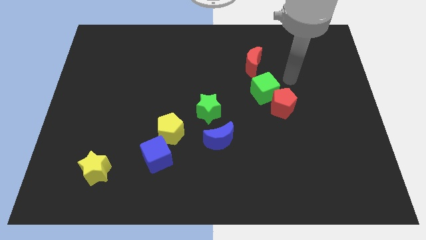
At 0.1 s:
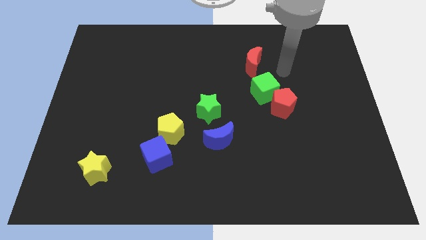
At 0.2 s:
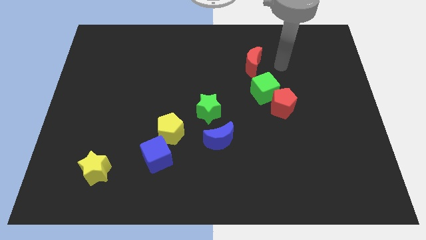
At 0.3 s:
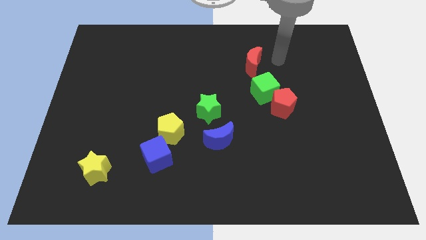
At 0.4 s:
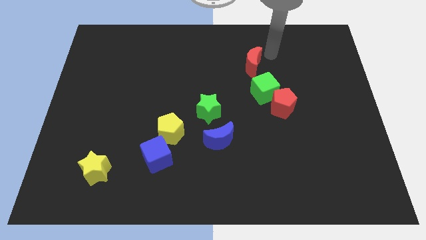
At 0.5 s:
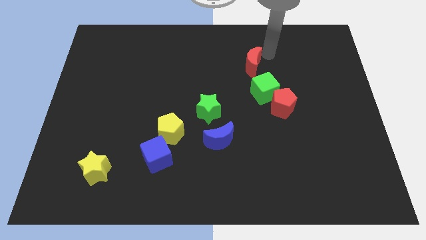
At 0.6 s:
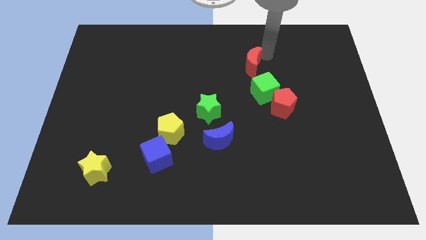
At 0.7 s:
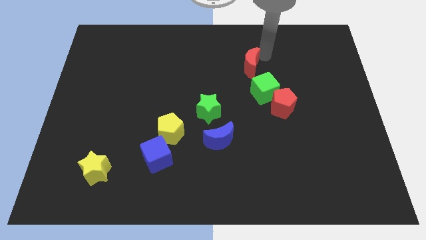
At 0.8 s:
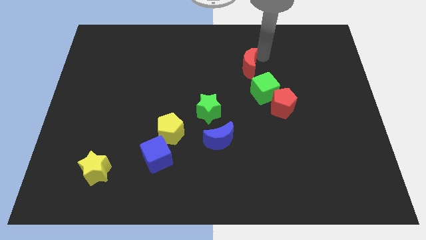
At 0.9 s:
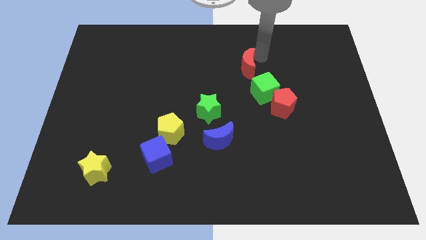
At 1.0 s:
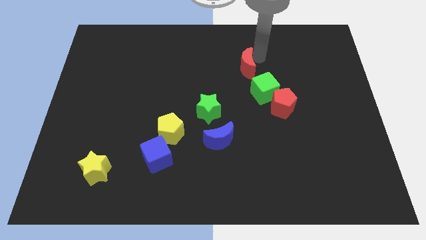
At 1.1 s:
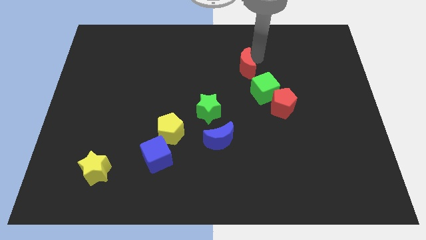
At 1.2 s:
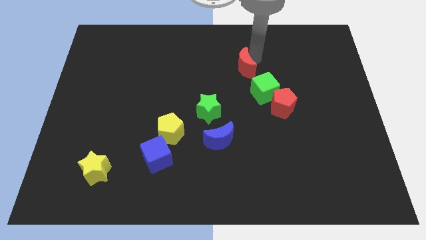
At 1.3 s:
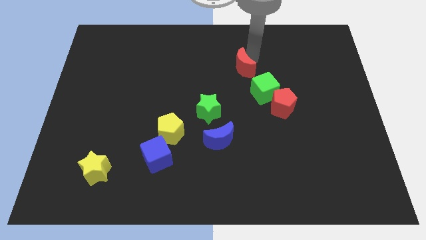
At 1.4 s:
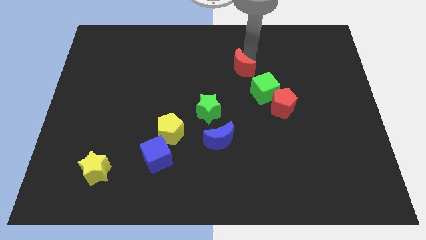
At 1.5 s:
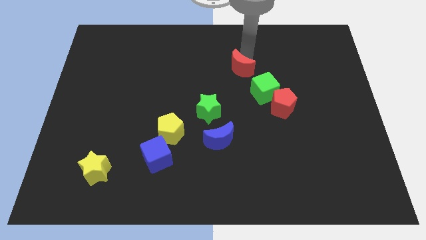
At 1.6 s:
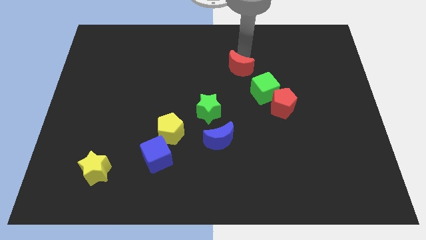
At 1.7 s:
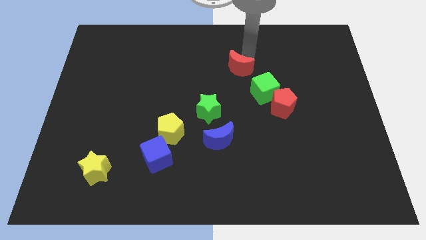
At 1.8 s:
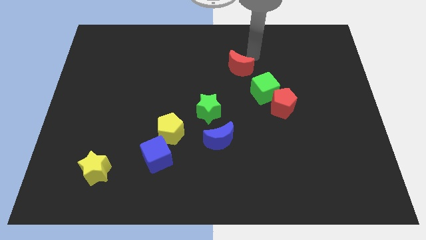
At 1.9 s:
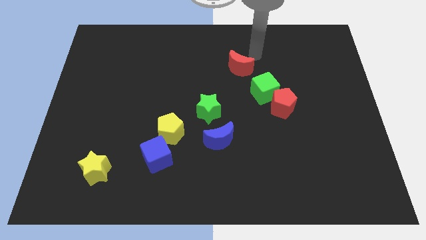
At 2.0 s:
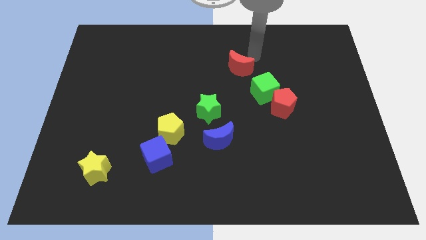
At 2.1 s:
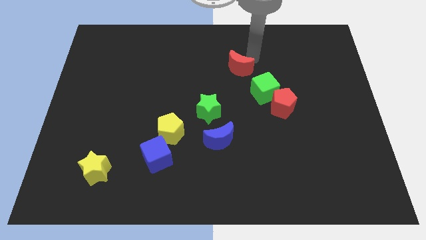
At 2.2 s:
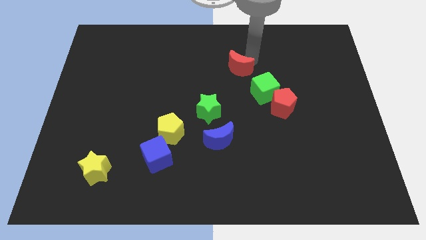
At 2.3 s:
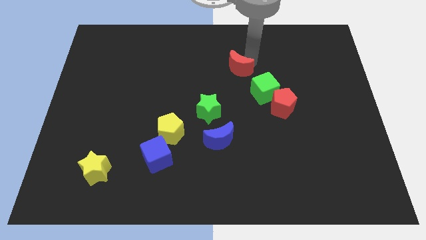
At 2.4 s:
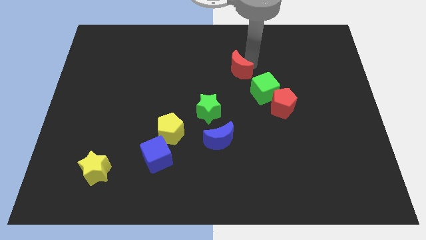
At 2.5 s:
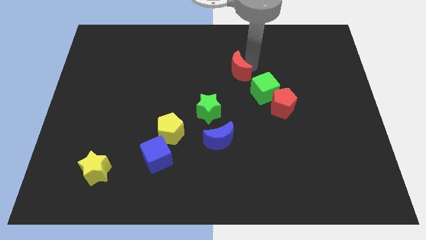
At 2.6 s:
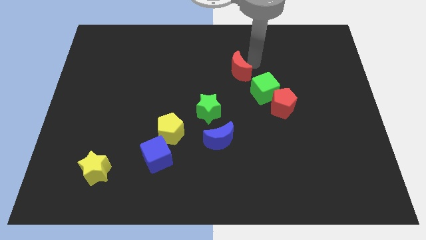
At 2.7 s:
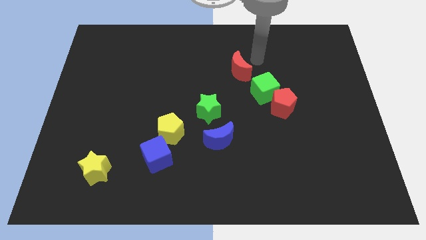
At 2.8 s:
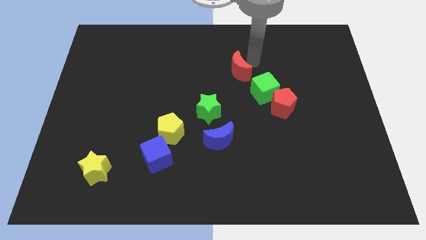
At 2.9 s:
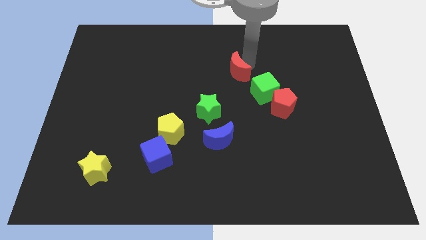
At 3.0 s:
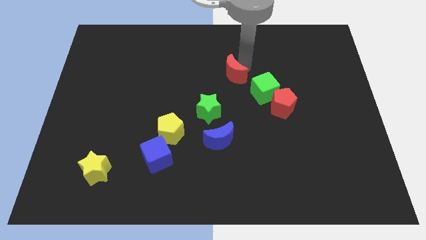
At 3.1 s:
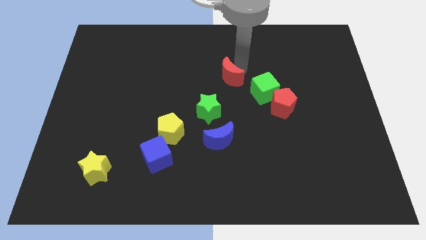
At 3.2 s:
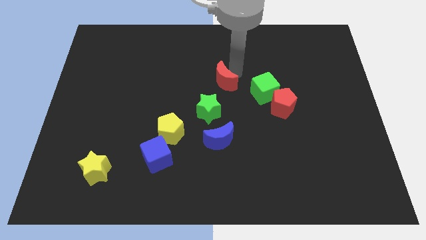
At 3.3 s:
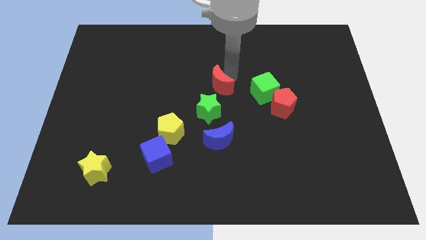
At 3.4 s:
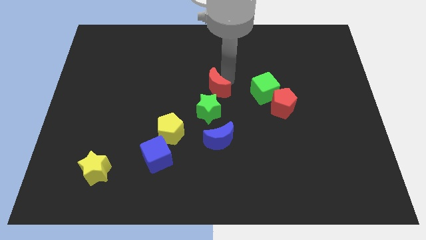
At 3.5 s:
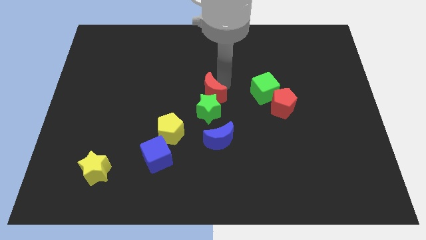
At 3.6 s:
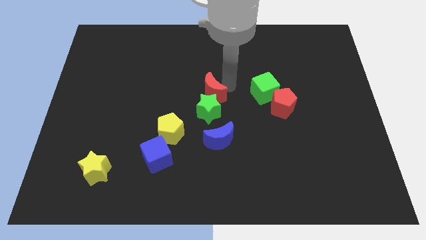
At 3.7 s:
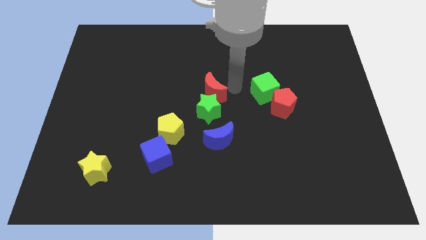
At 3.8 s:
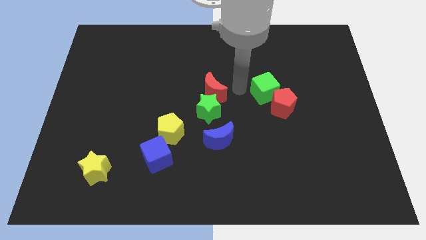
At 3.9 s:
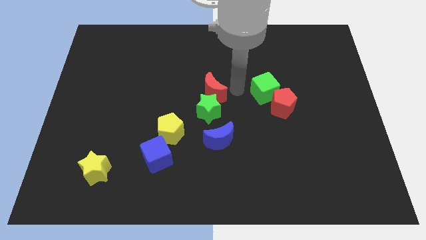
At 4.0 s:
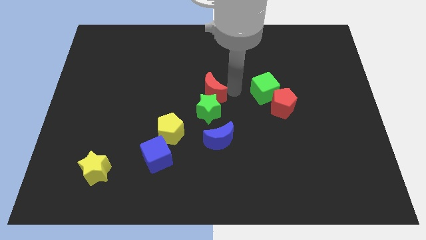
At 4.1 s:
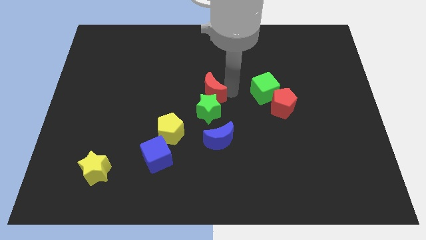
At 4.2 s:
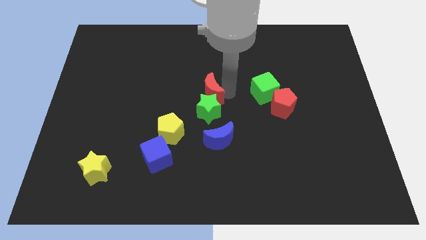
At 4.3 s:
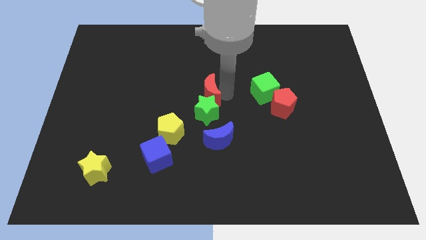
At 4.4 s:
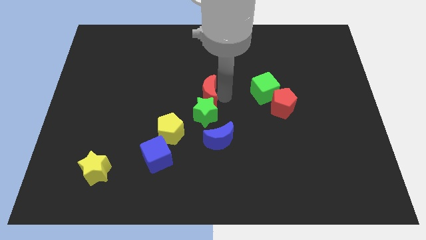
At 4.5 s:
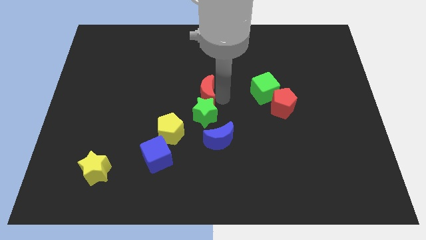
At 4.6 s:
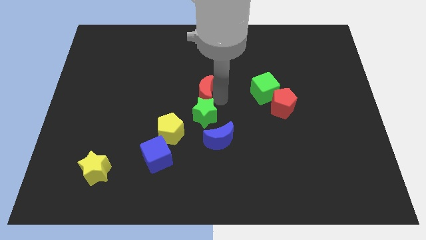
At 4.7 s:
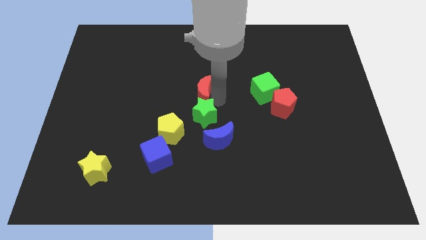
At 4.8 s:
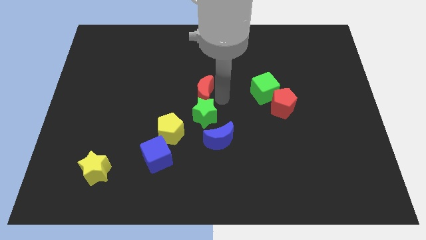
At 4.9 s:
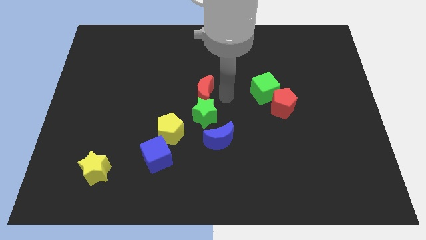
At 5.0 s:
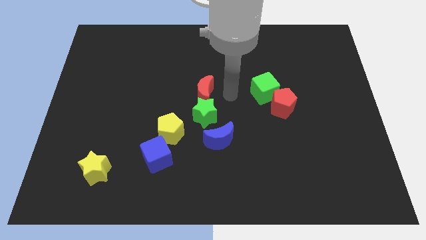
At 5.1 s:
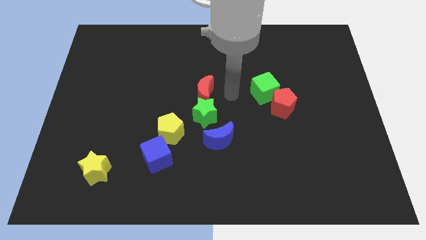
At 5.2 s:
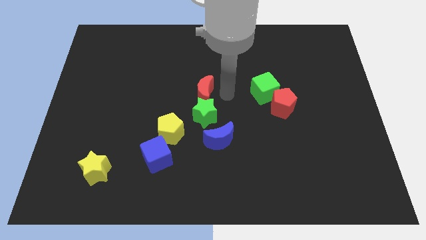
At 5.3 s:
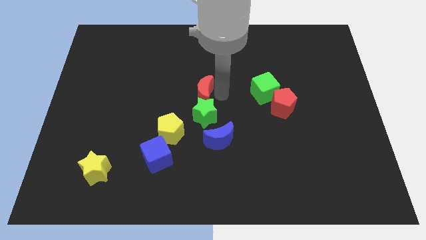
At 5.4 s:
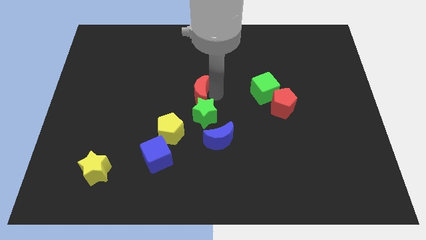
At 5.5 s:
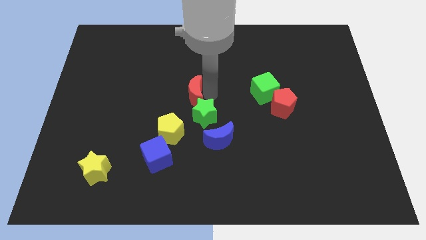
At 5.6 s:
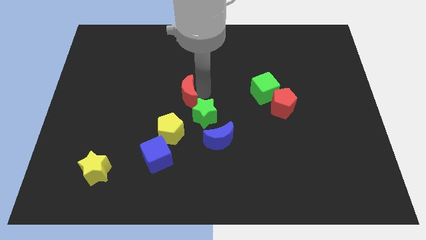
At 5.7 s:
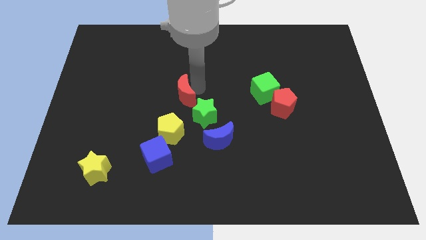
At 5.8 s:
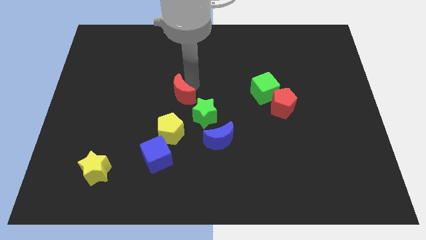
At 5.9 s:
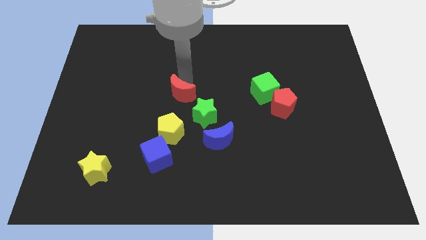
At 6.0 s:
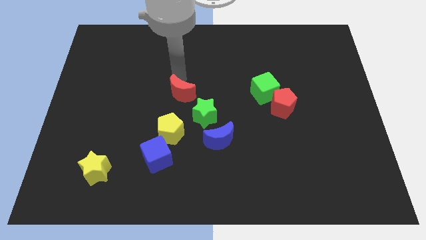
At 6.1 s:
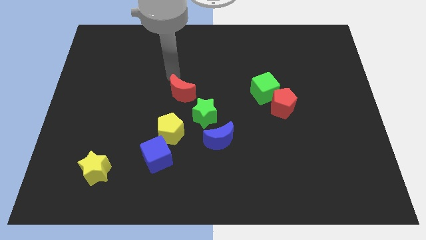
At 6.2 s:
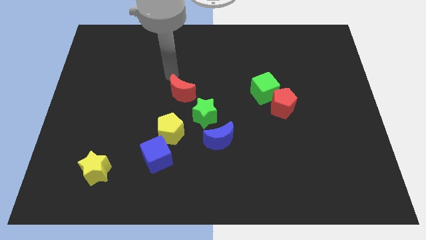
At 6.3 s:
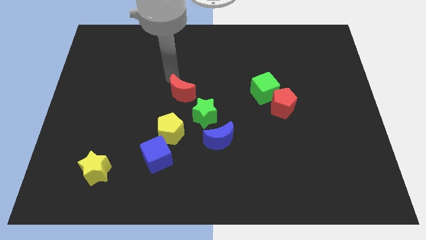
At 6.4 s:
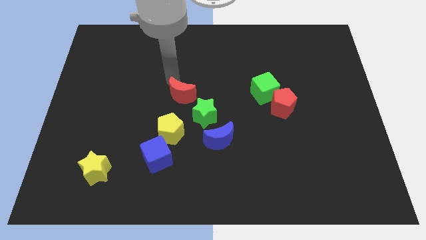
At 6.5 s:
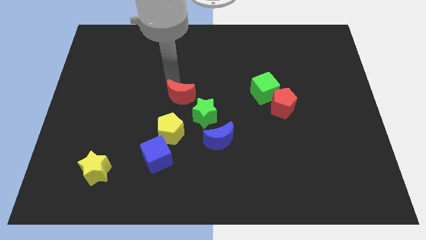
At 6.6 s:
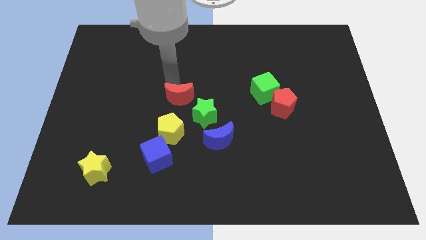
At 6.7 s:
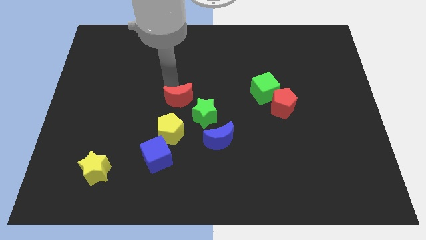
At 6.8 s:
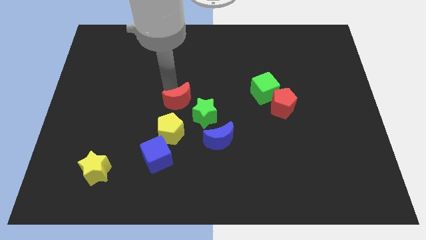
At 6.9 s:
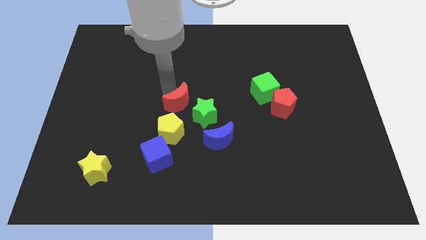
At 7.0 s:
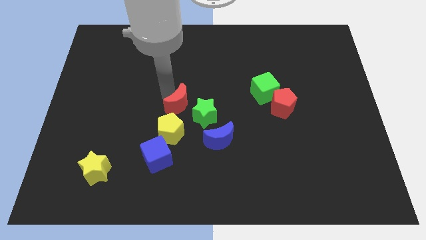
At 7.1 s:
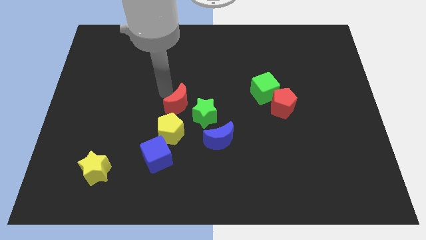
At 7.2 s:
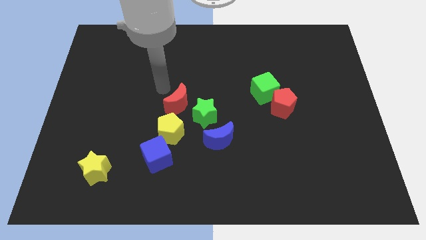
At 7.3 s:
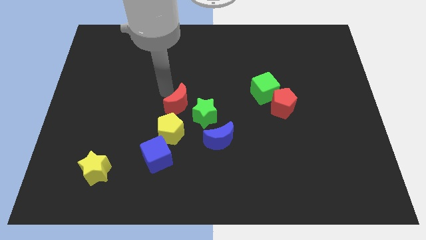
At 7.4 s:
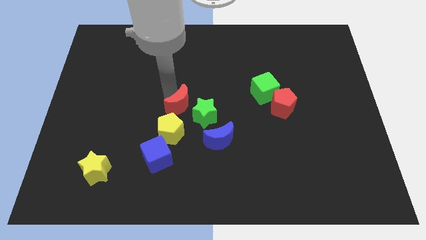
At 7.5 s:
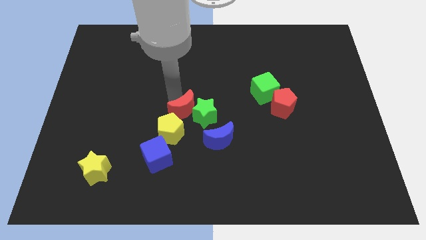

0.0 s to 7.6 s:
slide the red moon to the top left side of the blue moon
